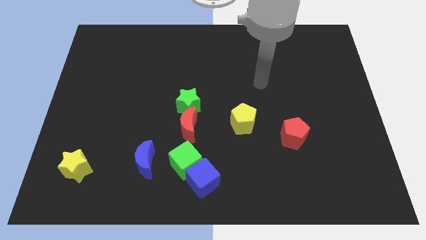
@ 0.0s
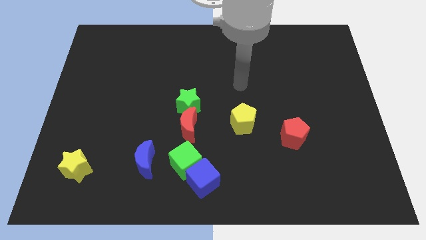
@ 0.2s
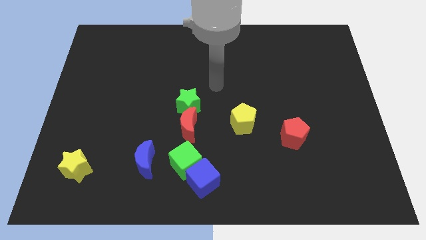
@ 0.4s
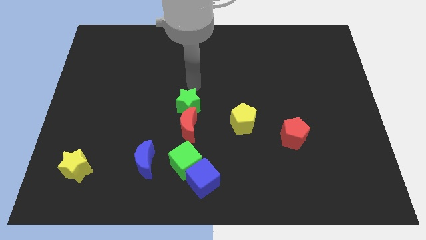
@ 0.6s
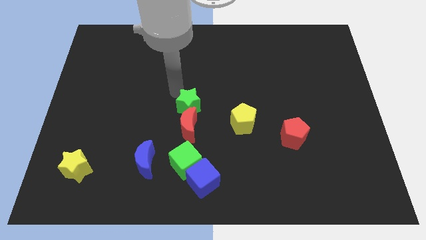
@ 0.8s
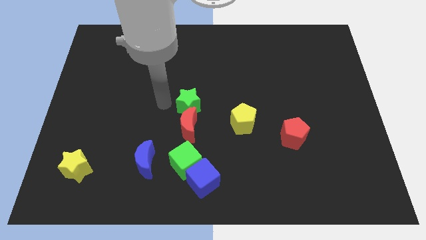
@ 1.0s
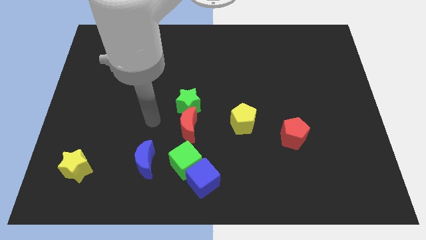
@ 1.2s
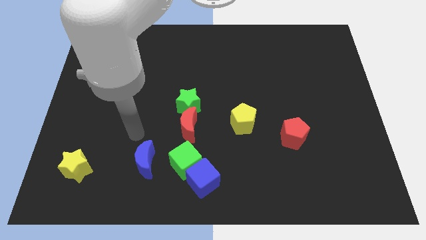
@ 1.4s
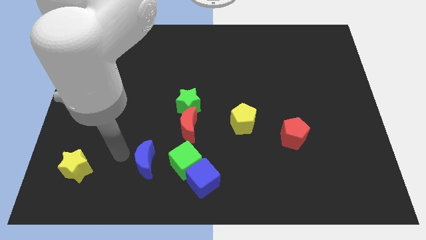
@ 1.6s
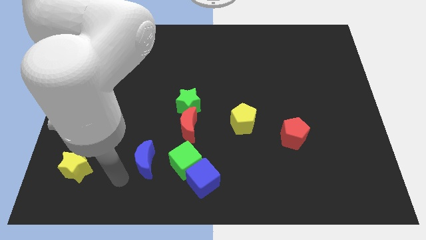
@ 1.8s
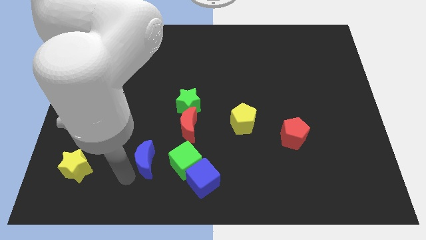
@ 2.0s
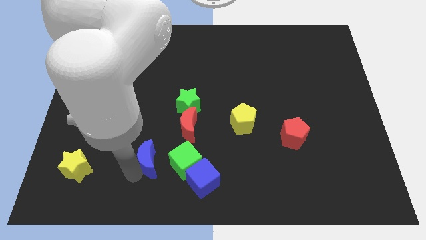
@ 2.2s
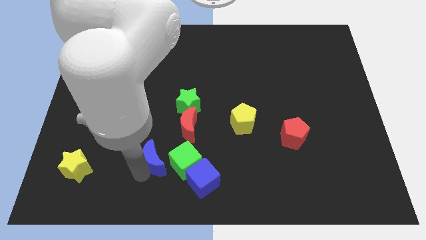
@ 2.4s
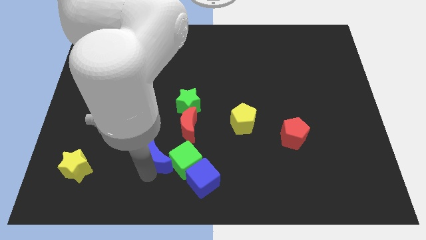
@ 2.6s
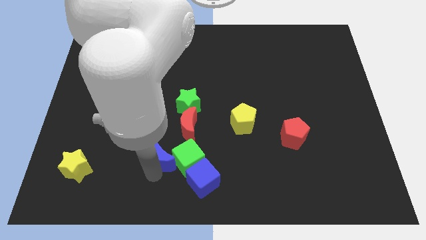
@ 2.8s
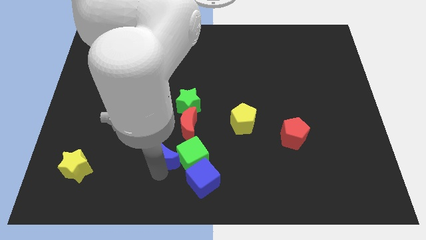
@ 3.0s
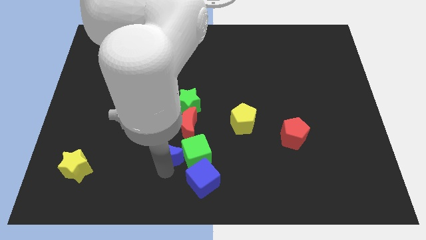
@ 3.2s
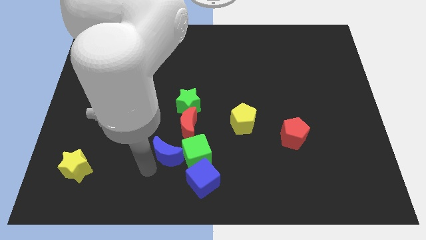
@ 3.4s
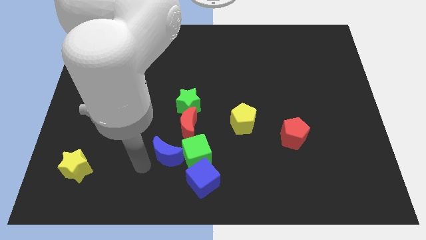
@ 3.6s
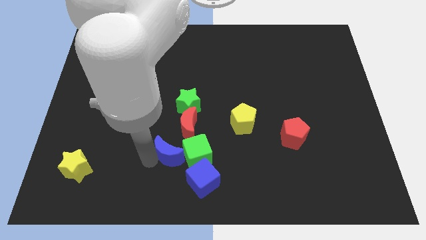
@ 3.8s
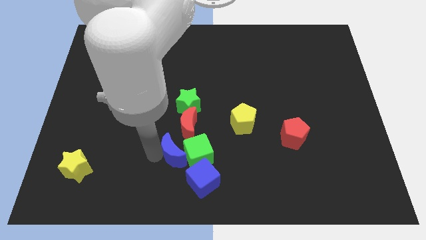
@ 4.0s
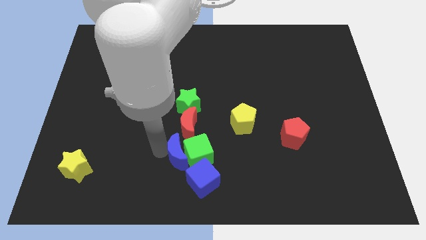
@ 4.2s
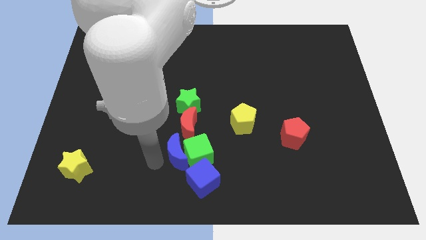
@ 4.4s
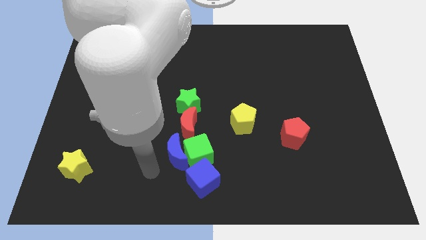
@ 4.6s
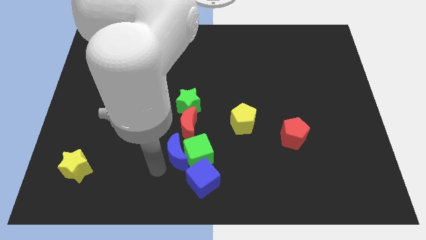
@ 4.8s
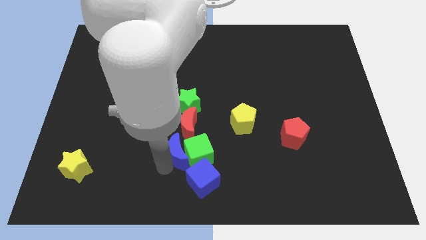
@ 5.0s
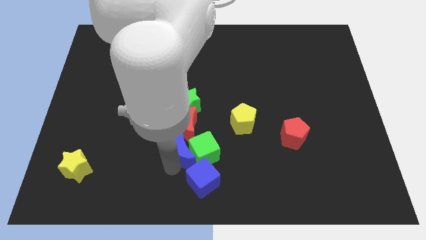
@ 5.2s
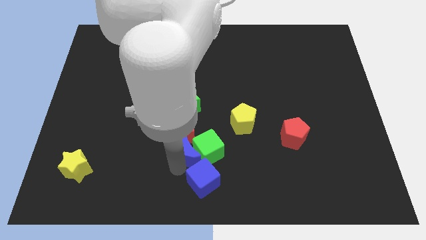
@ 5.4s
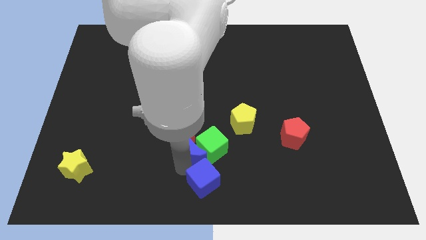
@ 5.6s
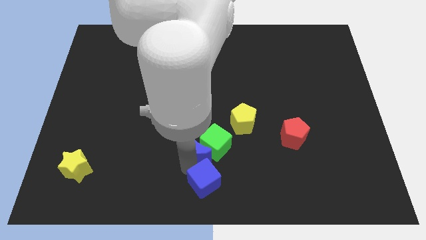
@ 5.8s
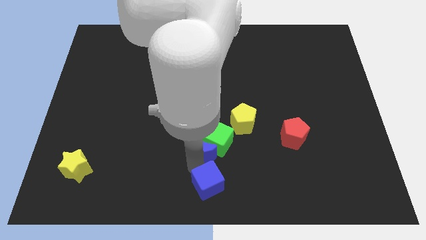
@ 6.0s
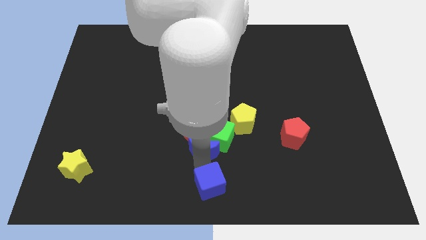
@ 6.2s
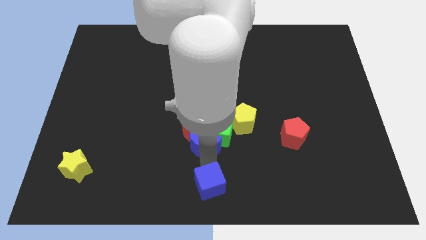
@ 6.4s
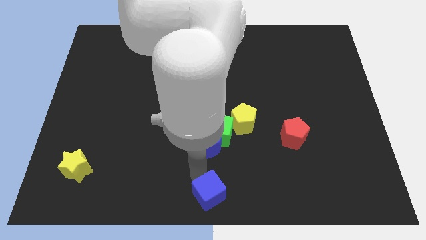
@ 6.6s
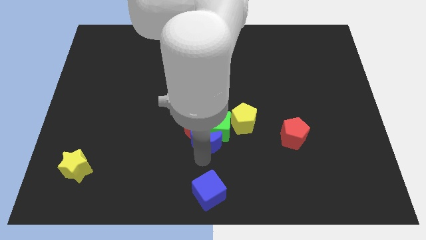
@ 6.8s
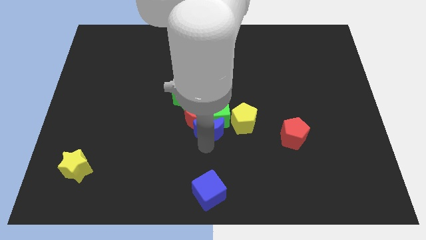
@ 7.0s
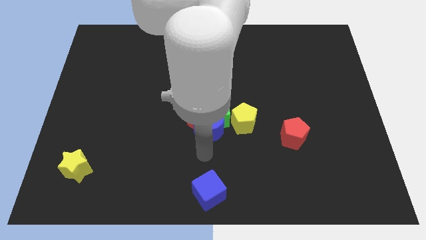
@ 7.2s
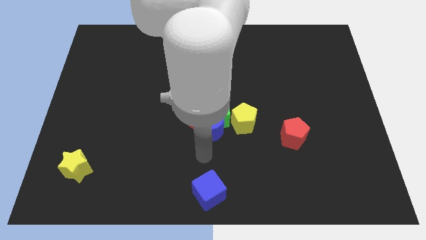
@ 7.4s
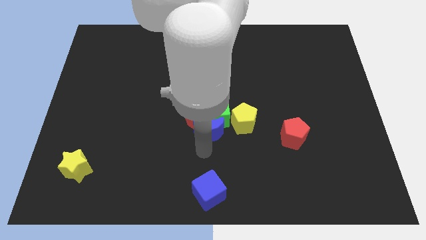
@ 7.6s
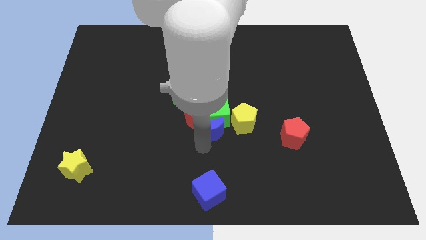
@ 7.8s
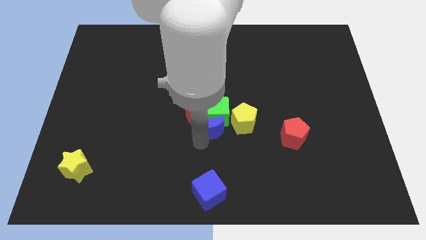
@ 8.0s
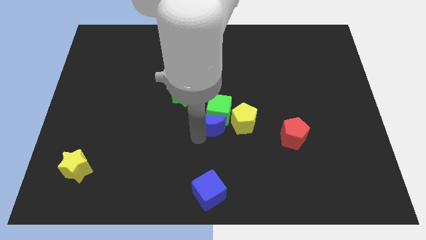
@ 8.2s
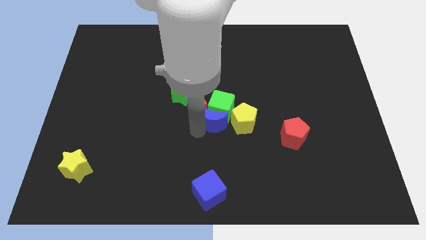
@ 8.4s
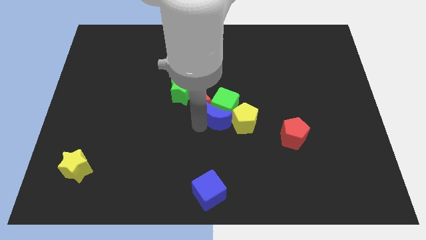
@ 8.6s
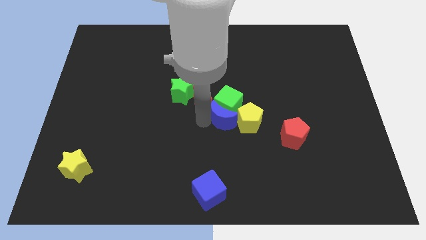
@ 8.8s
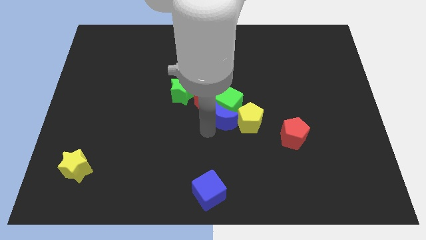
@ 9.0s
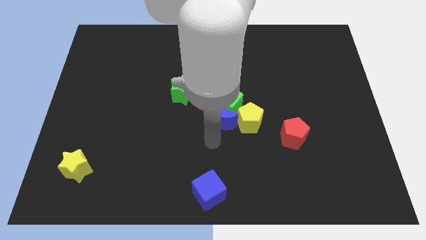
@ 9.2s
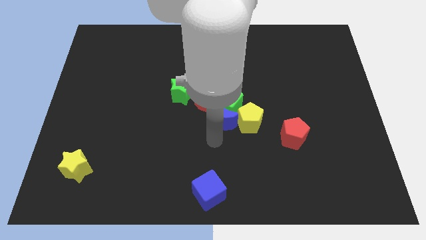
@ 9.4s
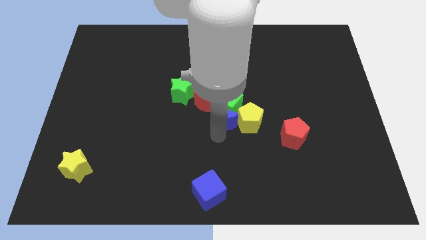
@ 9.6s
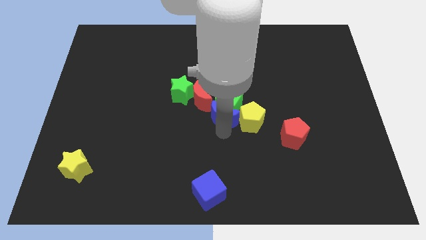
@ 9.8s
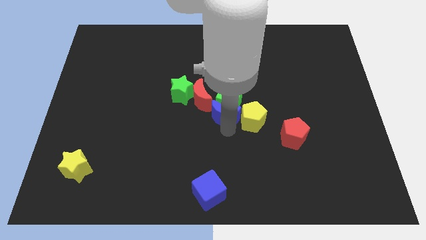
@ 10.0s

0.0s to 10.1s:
slide the blue moon up and to the right

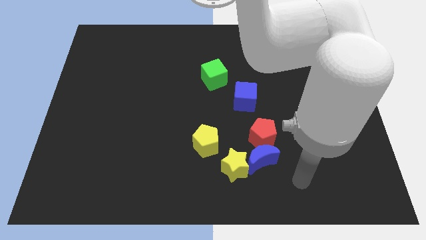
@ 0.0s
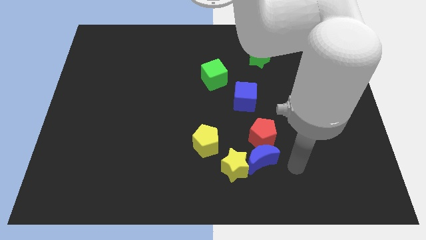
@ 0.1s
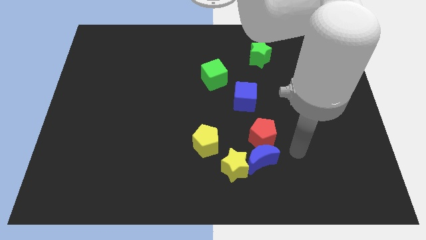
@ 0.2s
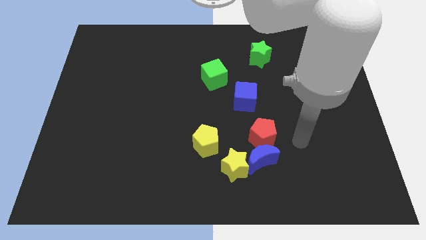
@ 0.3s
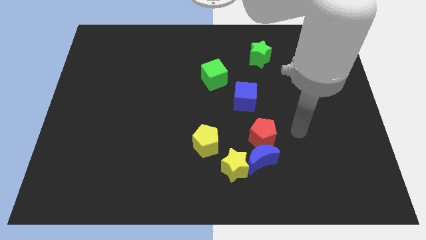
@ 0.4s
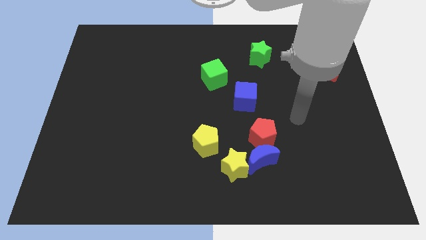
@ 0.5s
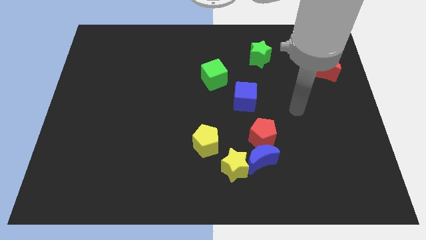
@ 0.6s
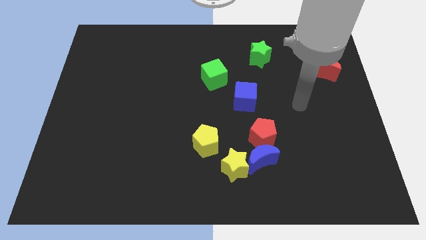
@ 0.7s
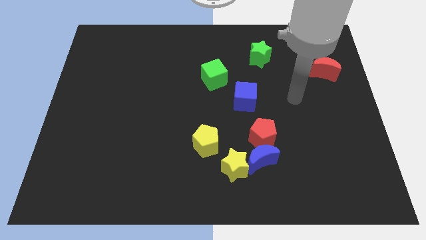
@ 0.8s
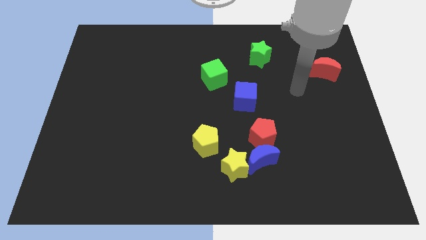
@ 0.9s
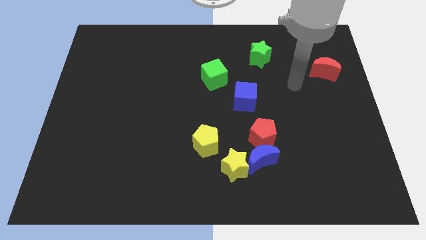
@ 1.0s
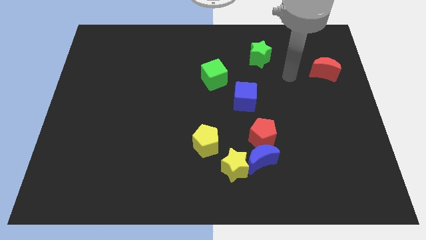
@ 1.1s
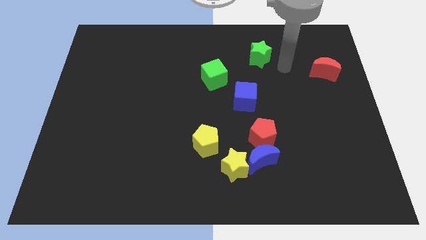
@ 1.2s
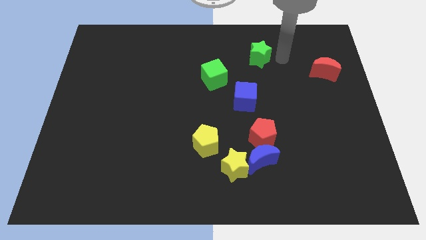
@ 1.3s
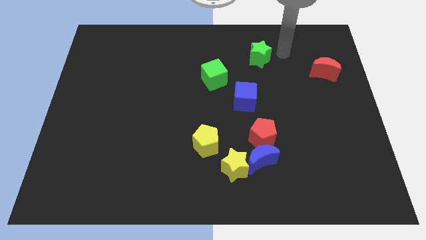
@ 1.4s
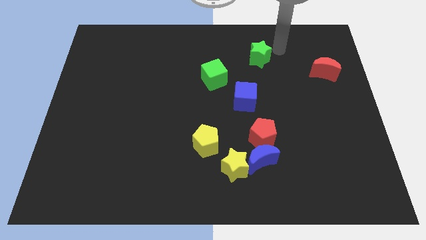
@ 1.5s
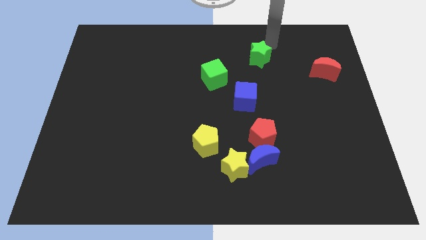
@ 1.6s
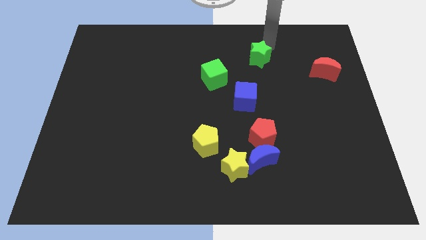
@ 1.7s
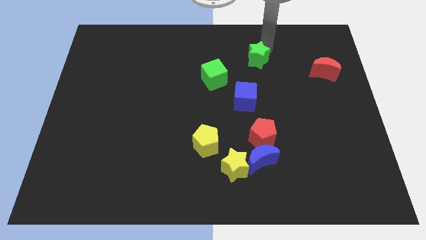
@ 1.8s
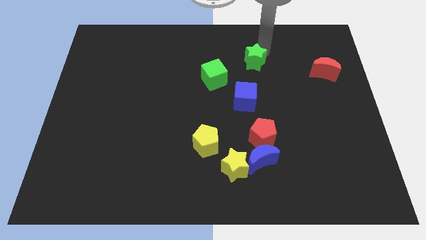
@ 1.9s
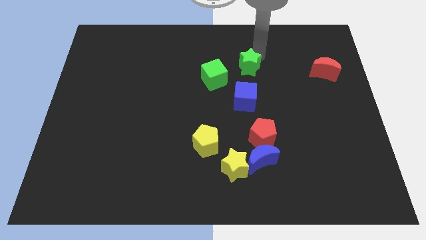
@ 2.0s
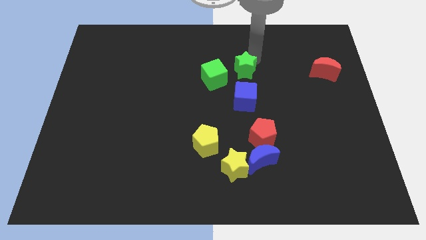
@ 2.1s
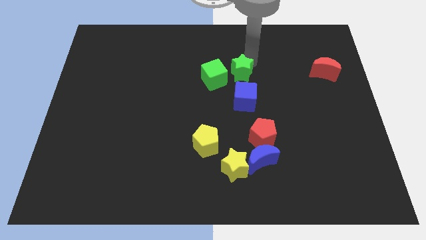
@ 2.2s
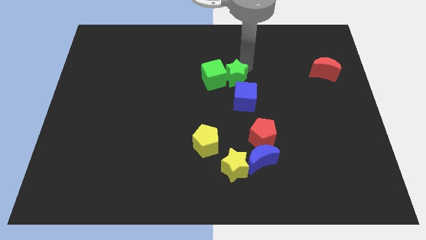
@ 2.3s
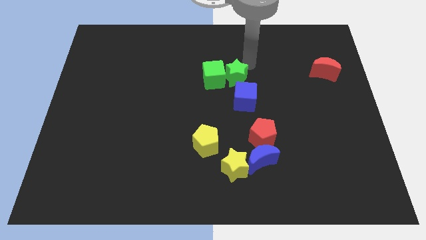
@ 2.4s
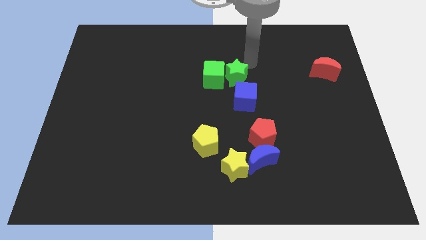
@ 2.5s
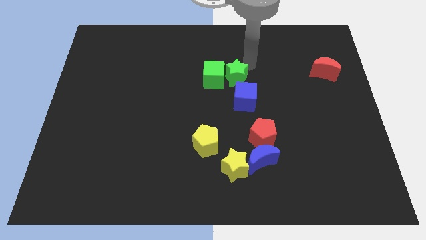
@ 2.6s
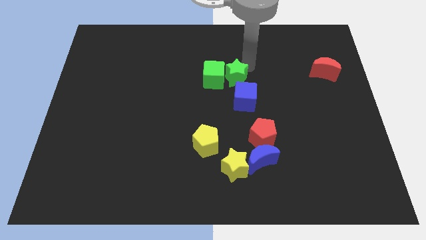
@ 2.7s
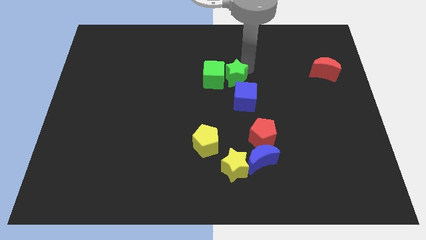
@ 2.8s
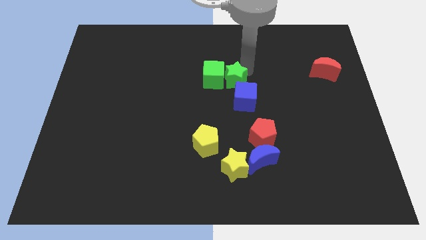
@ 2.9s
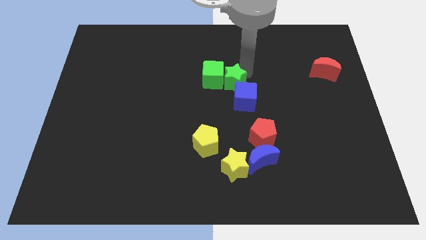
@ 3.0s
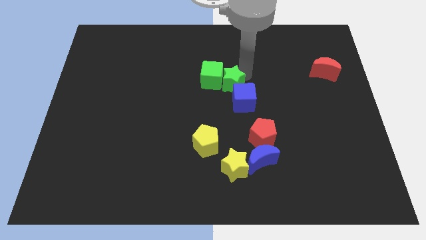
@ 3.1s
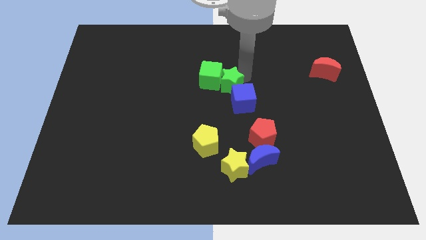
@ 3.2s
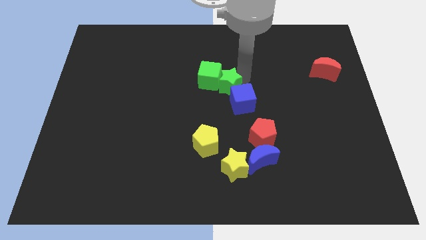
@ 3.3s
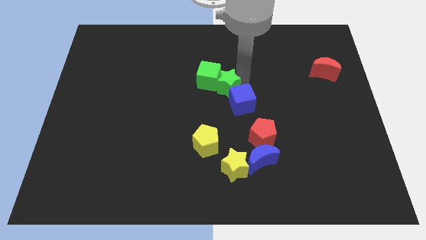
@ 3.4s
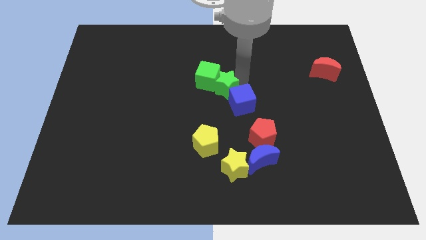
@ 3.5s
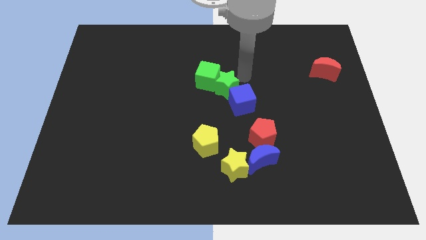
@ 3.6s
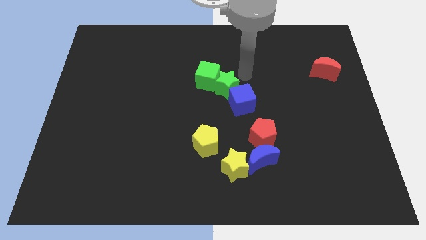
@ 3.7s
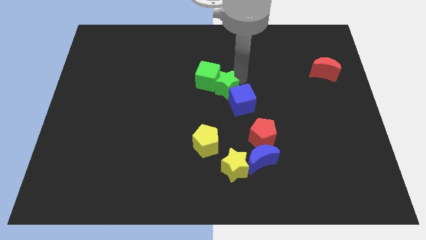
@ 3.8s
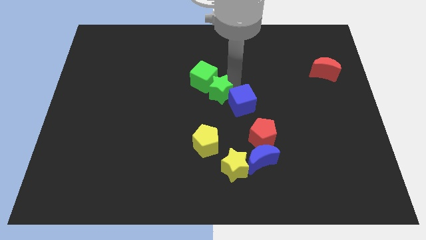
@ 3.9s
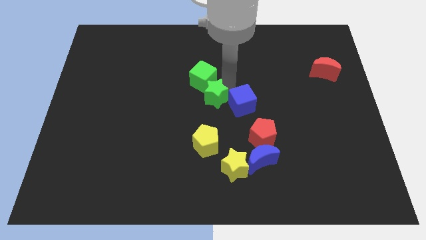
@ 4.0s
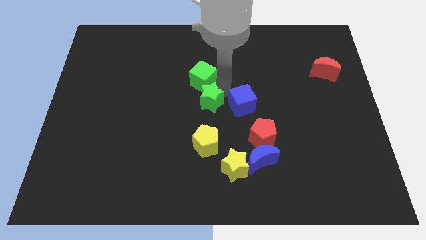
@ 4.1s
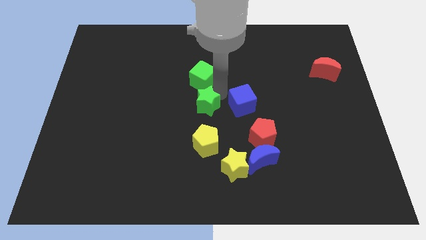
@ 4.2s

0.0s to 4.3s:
move the green star diagonally down and left
